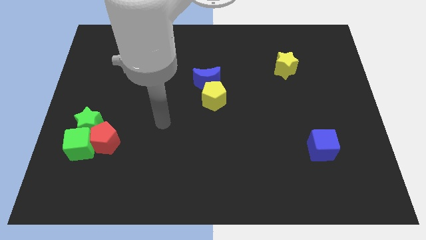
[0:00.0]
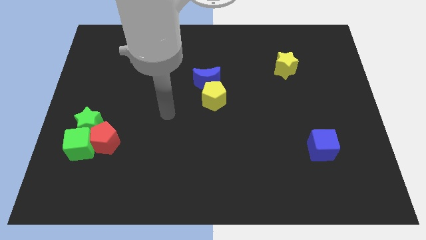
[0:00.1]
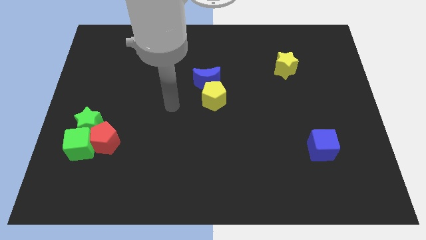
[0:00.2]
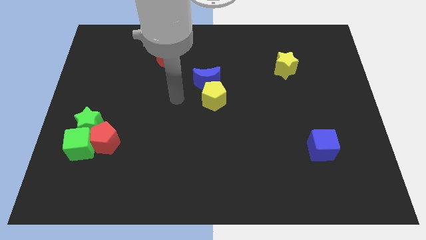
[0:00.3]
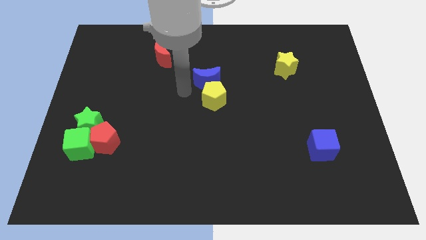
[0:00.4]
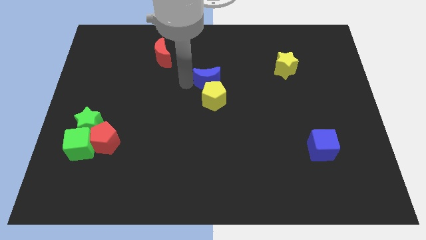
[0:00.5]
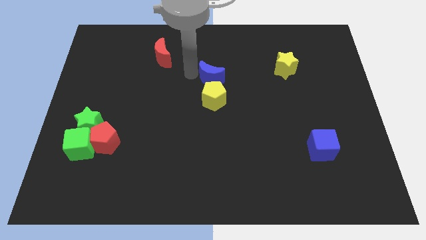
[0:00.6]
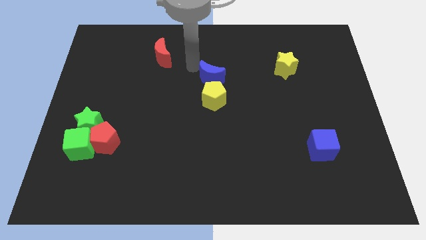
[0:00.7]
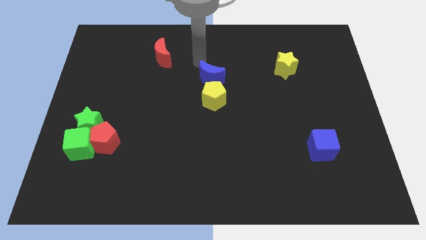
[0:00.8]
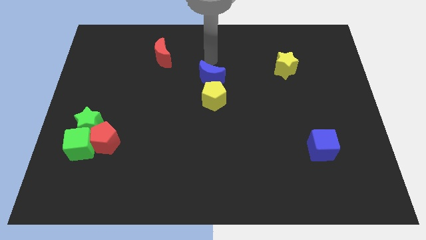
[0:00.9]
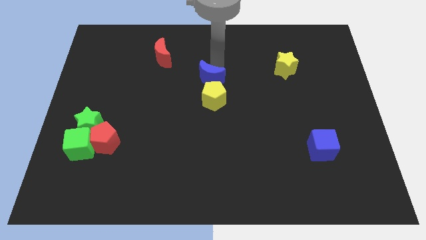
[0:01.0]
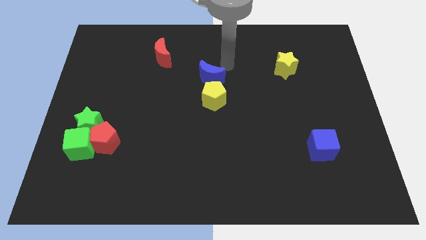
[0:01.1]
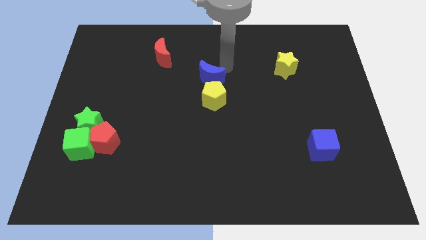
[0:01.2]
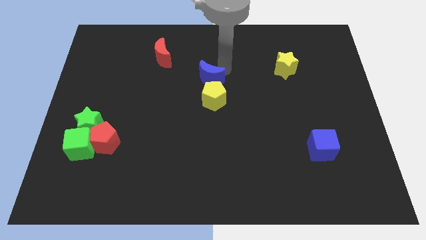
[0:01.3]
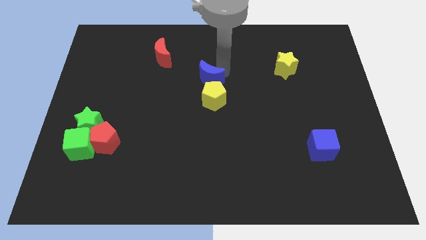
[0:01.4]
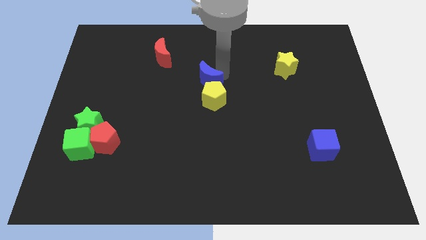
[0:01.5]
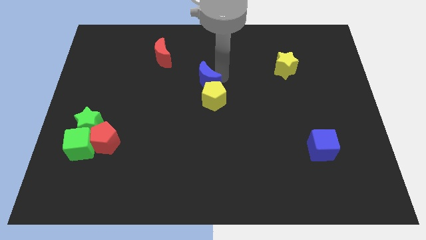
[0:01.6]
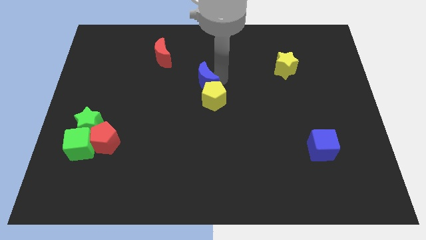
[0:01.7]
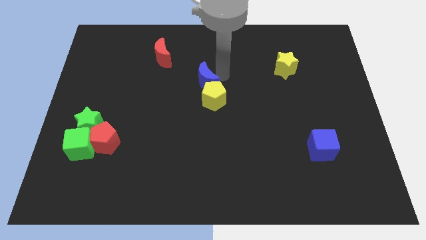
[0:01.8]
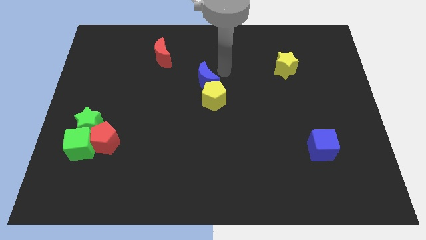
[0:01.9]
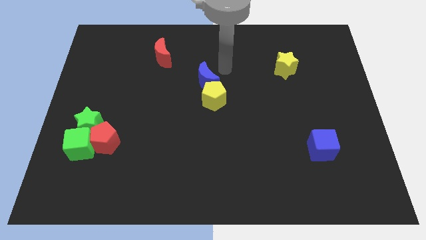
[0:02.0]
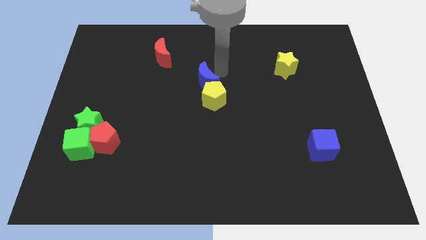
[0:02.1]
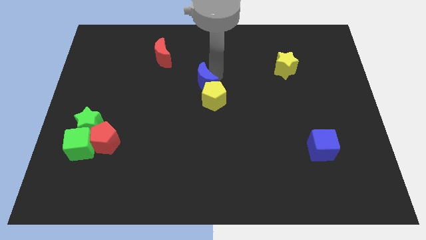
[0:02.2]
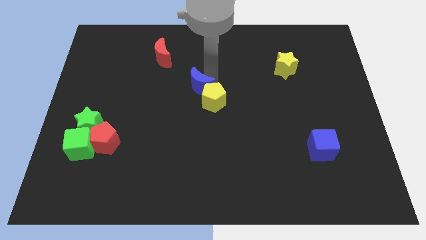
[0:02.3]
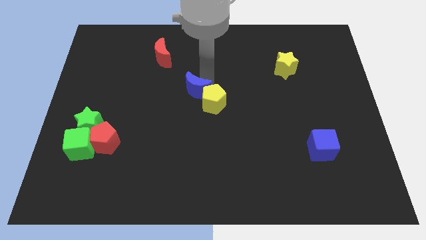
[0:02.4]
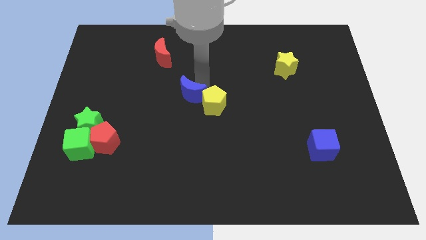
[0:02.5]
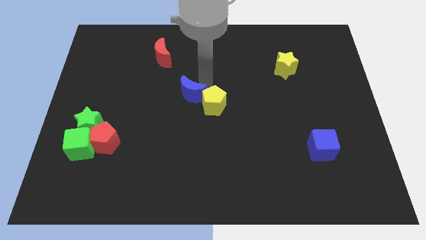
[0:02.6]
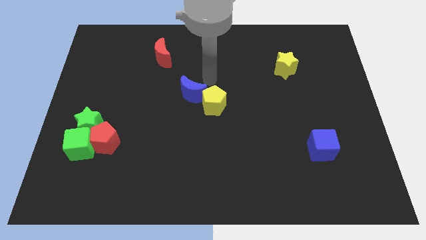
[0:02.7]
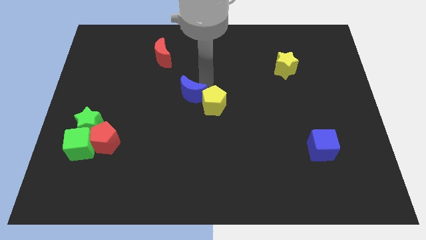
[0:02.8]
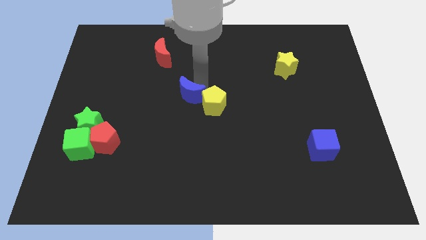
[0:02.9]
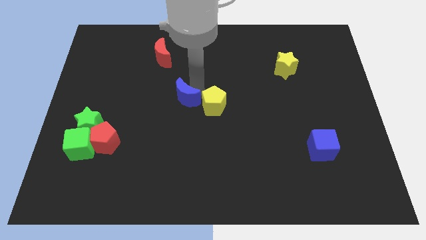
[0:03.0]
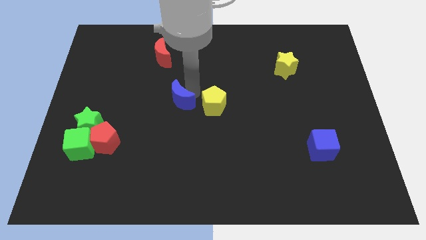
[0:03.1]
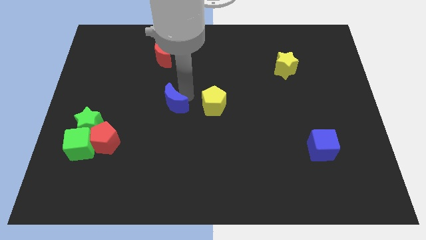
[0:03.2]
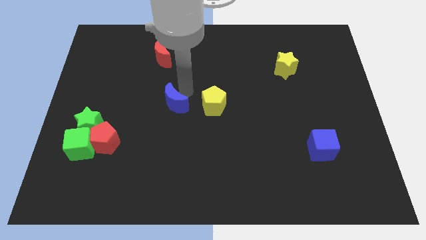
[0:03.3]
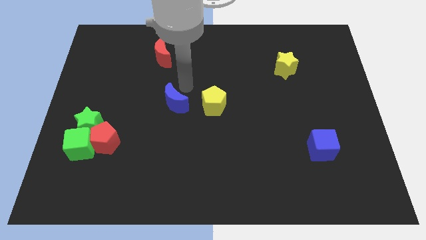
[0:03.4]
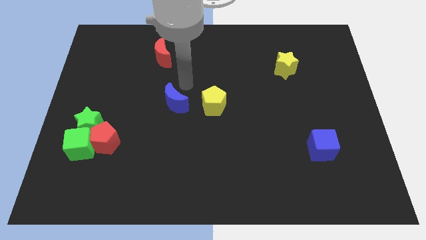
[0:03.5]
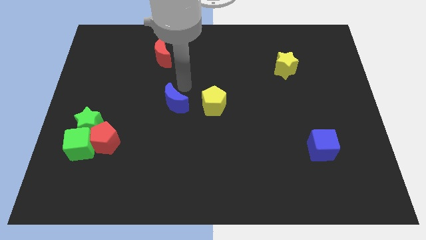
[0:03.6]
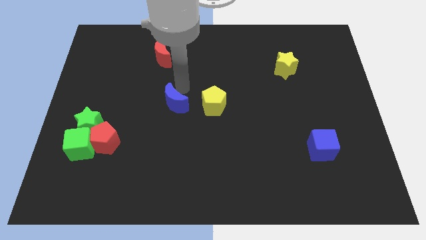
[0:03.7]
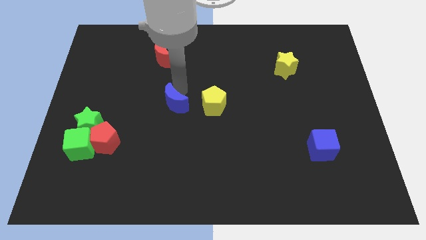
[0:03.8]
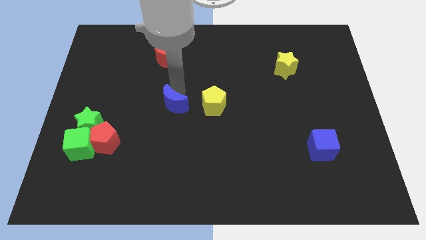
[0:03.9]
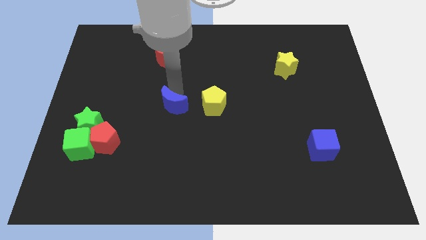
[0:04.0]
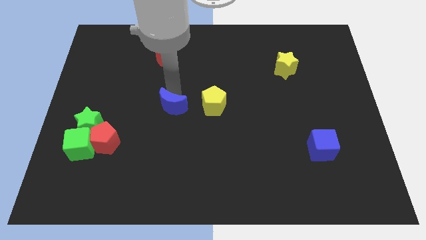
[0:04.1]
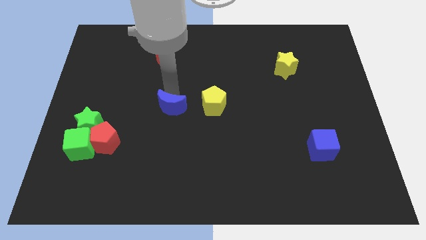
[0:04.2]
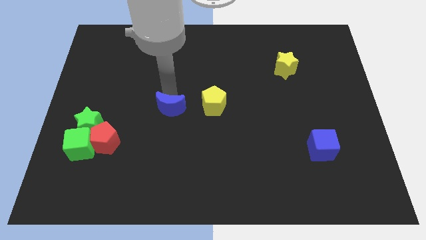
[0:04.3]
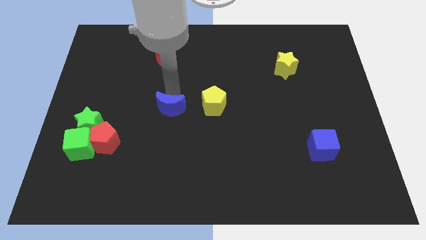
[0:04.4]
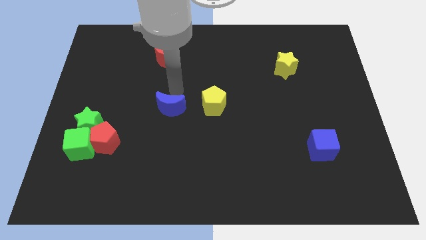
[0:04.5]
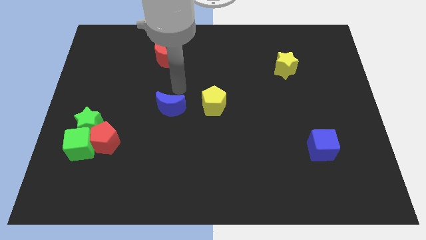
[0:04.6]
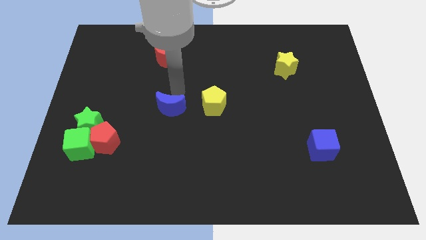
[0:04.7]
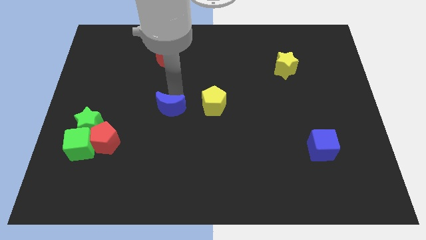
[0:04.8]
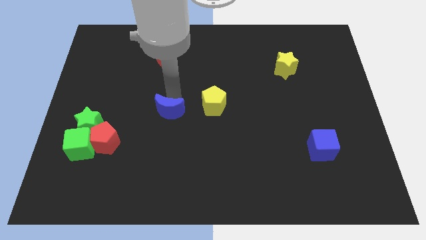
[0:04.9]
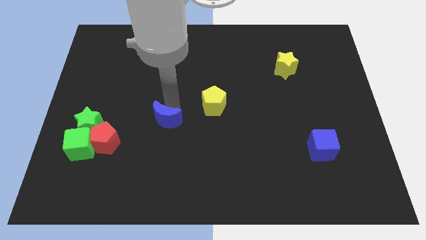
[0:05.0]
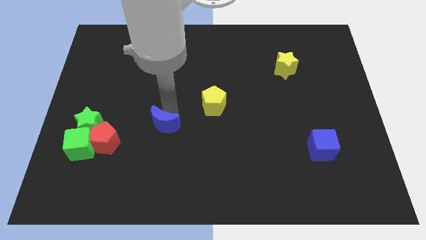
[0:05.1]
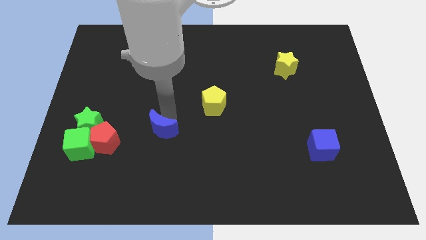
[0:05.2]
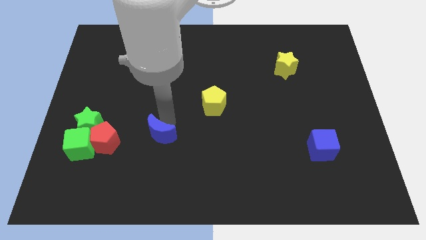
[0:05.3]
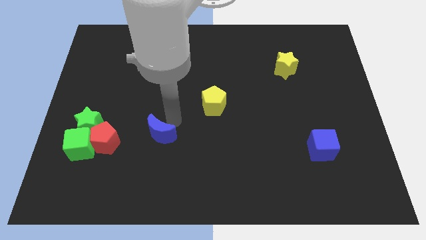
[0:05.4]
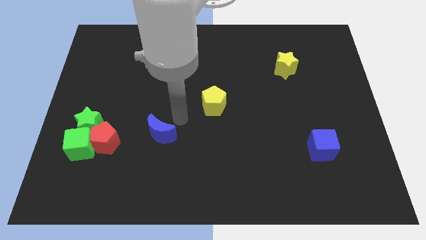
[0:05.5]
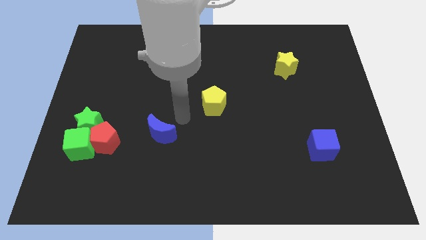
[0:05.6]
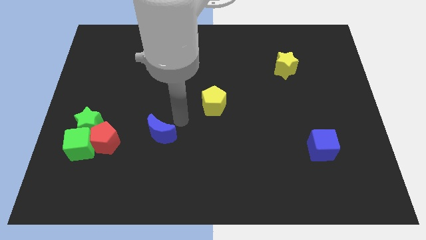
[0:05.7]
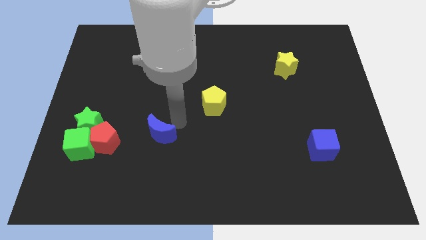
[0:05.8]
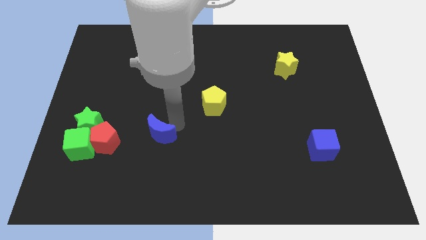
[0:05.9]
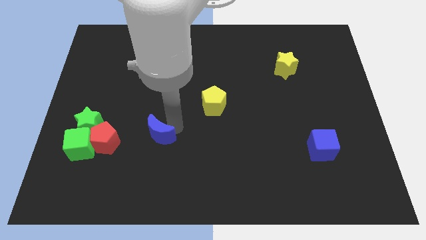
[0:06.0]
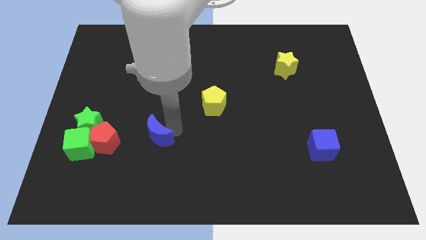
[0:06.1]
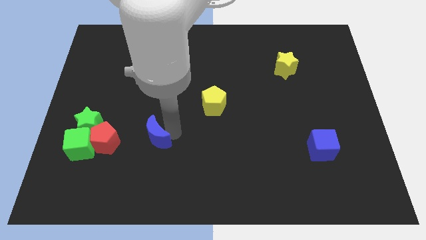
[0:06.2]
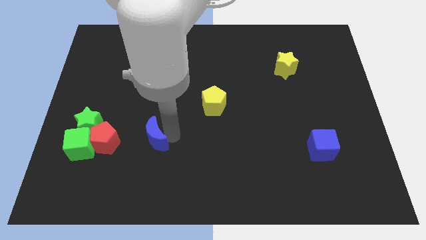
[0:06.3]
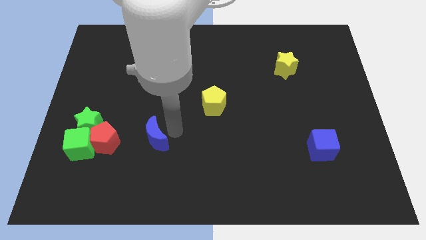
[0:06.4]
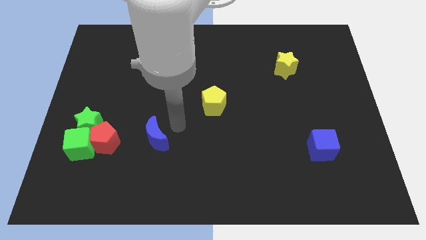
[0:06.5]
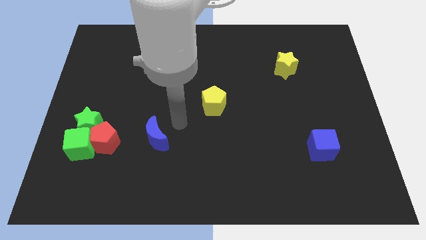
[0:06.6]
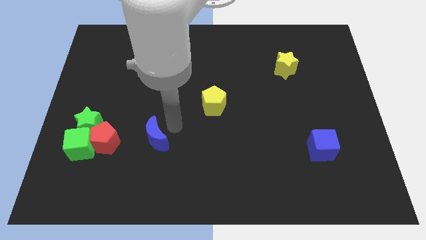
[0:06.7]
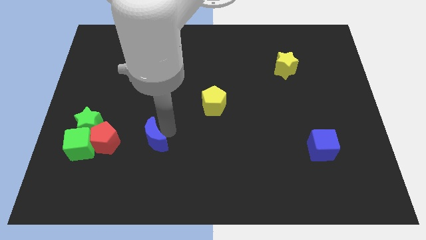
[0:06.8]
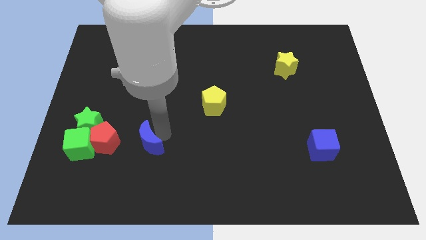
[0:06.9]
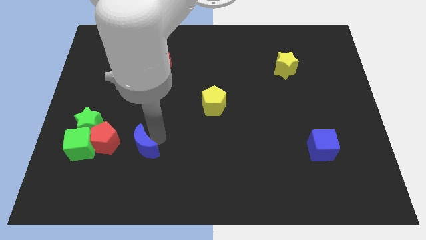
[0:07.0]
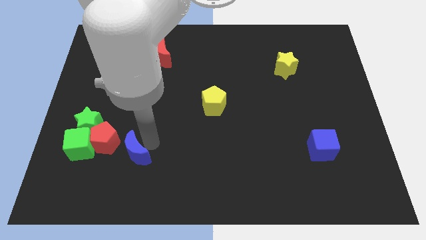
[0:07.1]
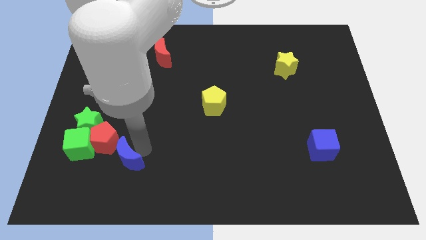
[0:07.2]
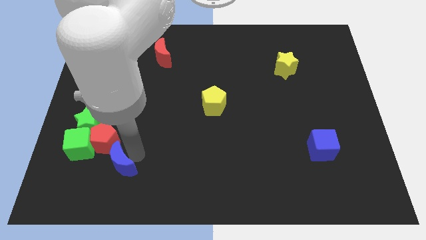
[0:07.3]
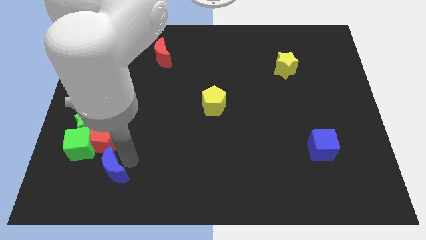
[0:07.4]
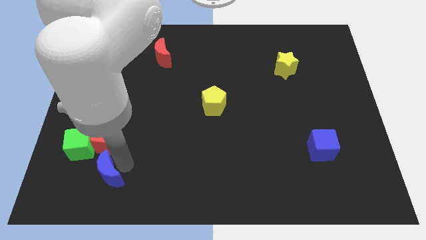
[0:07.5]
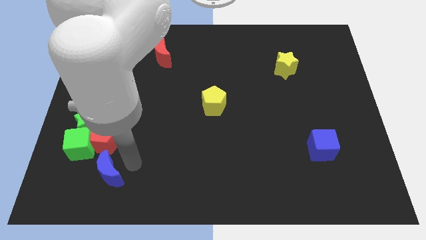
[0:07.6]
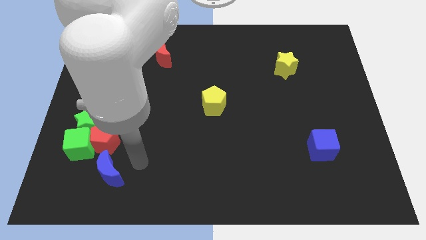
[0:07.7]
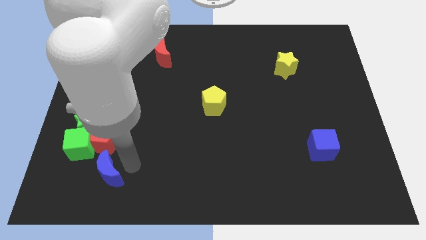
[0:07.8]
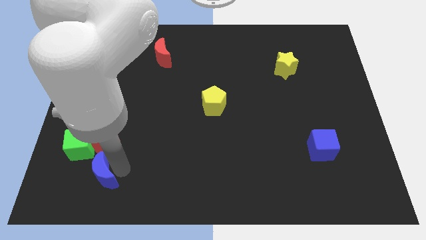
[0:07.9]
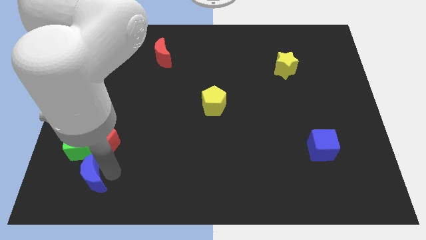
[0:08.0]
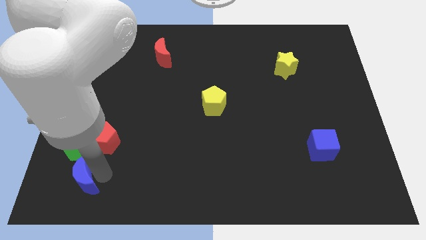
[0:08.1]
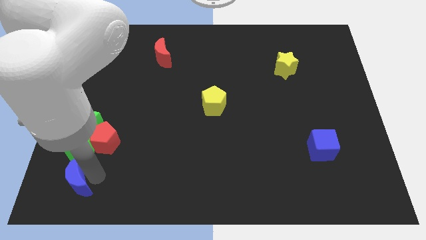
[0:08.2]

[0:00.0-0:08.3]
put the blue moon to the bottom left of the board
